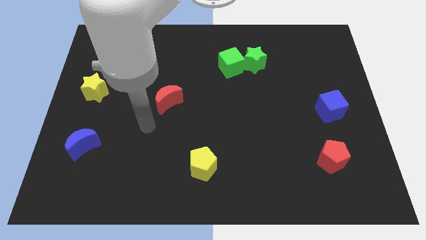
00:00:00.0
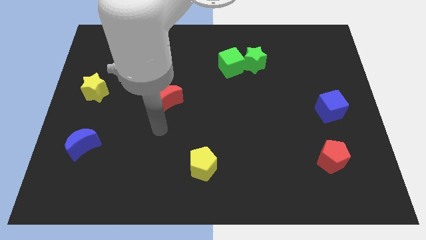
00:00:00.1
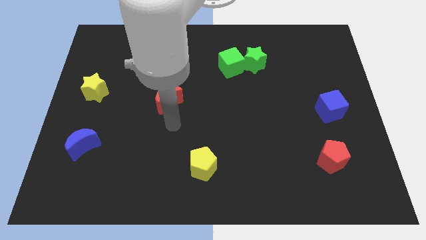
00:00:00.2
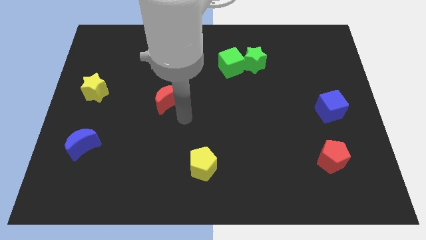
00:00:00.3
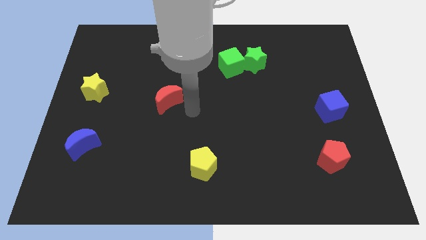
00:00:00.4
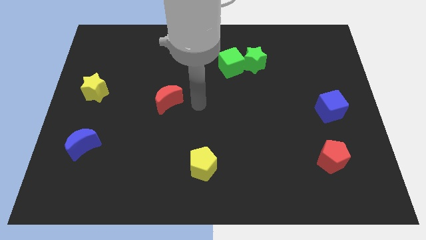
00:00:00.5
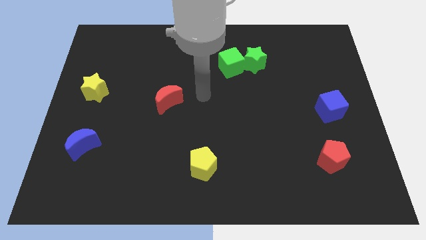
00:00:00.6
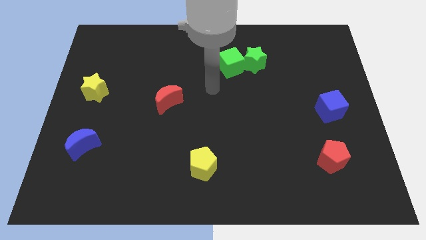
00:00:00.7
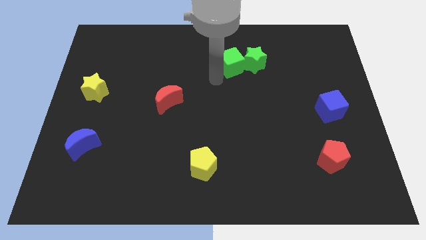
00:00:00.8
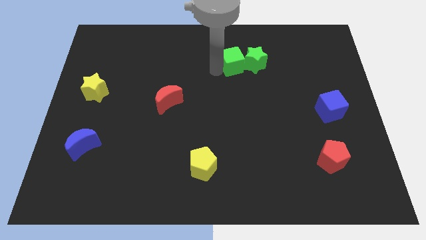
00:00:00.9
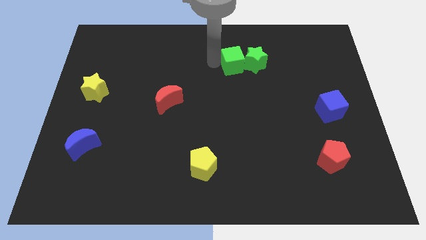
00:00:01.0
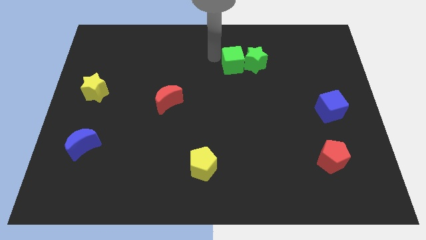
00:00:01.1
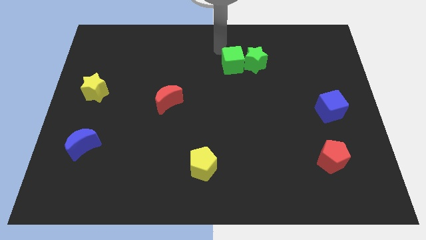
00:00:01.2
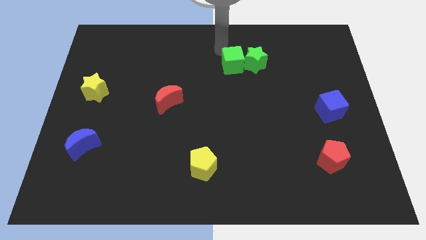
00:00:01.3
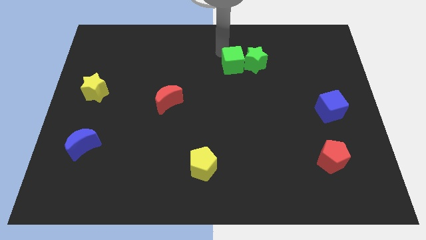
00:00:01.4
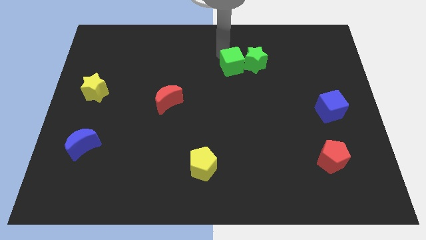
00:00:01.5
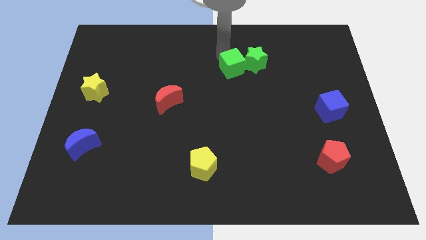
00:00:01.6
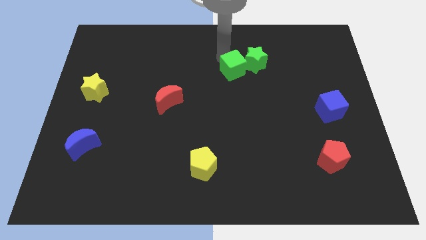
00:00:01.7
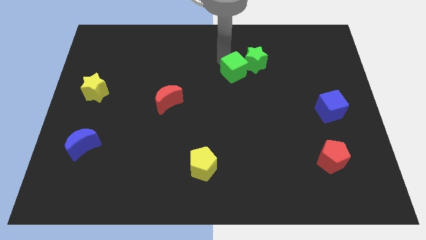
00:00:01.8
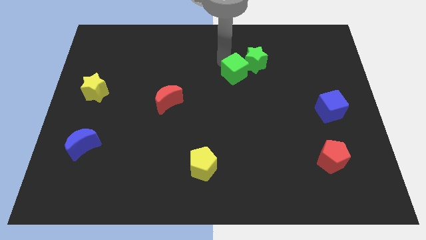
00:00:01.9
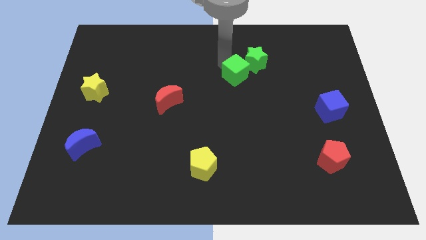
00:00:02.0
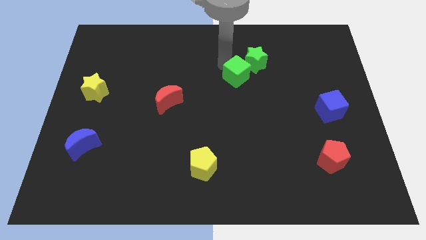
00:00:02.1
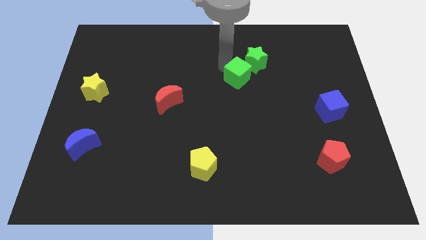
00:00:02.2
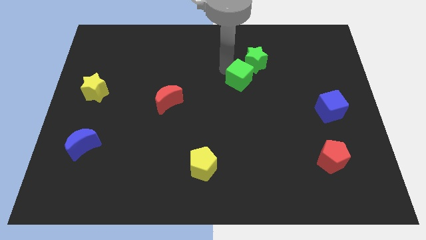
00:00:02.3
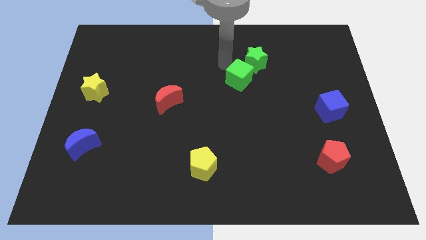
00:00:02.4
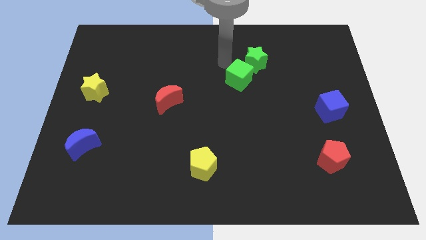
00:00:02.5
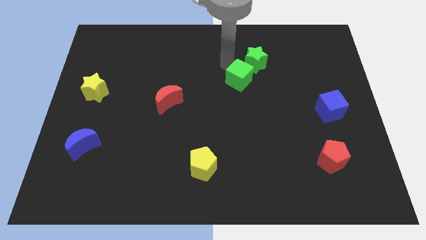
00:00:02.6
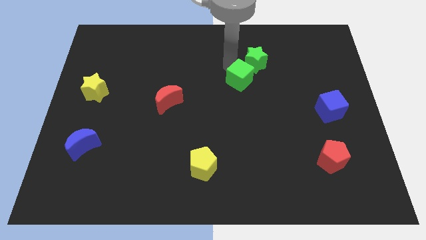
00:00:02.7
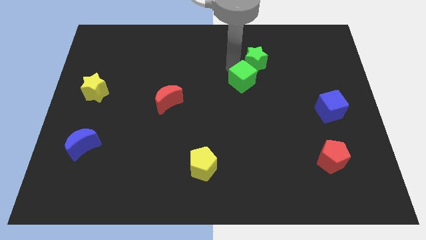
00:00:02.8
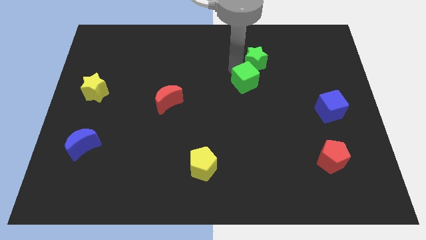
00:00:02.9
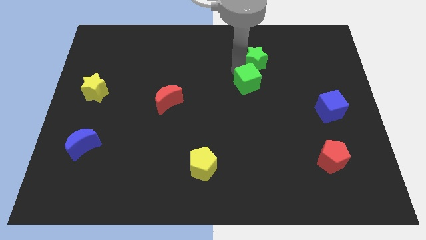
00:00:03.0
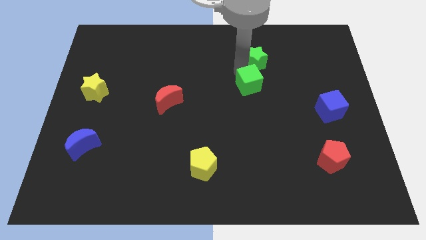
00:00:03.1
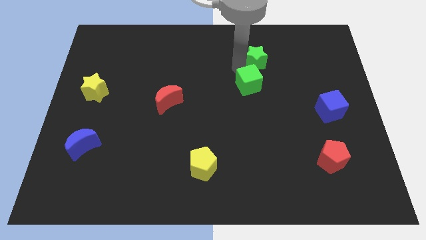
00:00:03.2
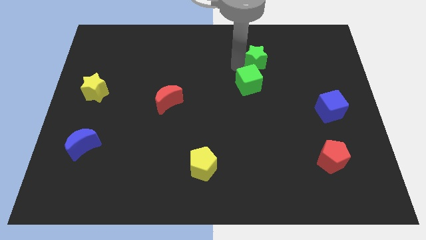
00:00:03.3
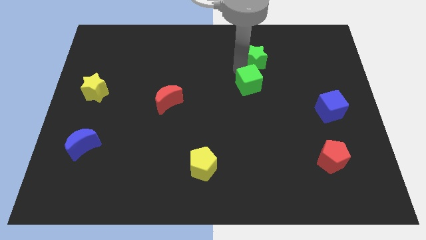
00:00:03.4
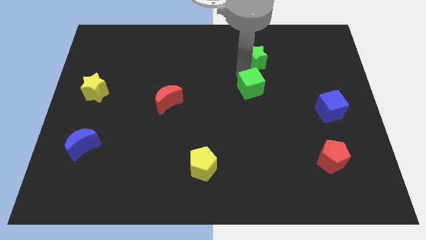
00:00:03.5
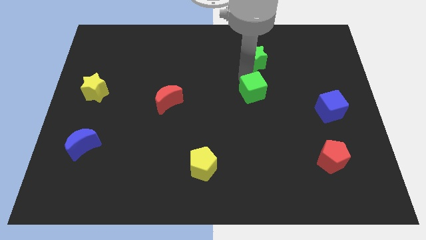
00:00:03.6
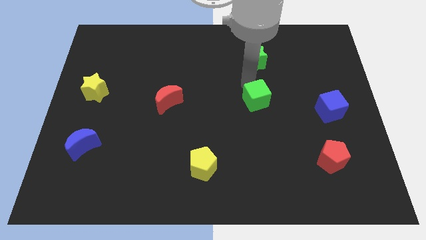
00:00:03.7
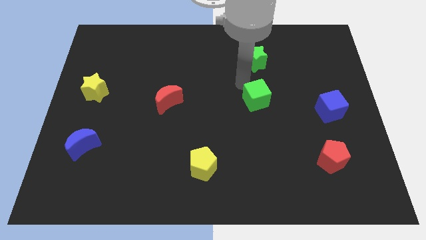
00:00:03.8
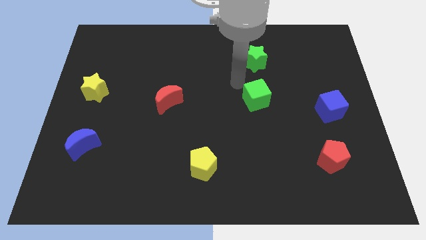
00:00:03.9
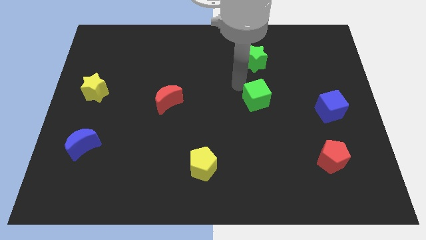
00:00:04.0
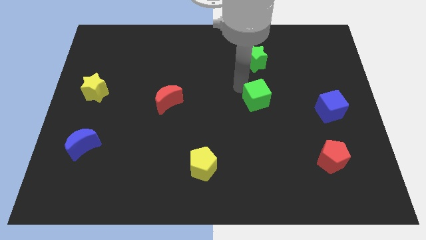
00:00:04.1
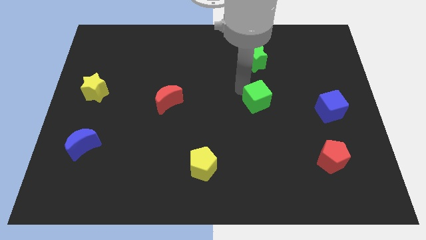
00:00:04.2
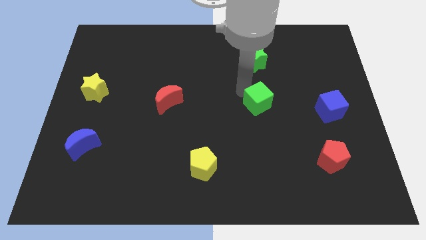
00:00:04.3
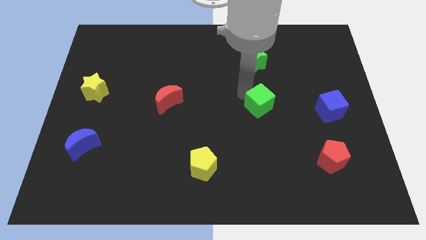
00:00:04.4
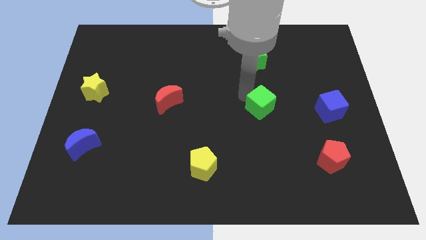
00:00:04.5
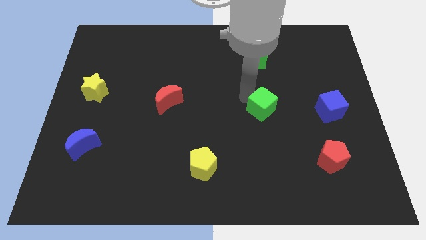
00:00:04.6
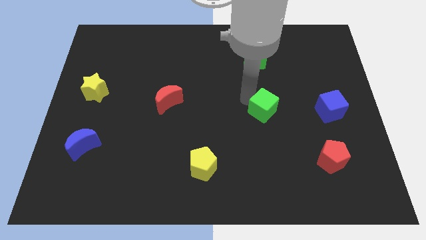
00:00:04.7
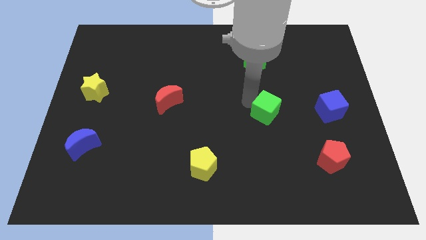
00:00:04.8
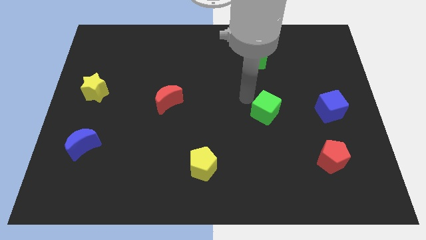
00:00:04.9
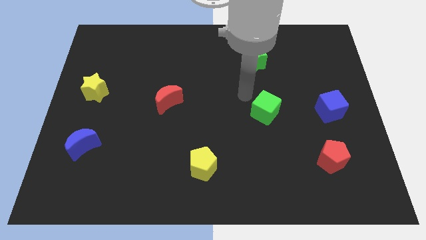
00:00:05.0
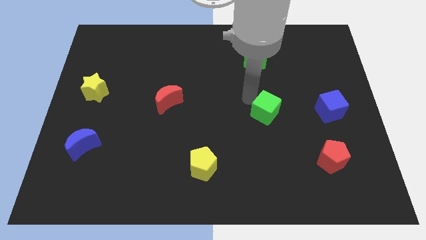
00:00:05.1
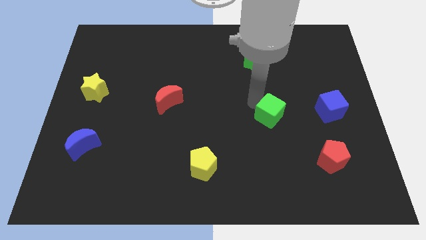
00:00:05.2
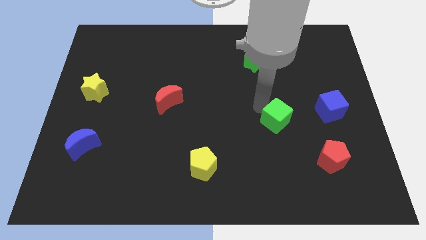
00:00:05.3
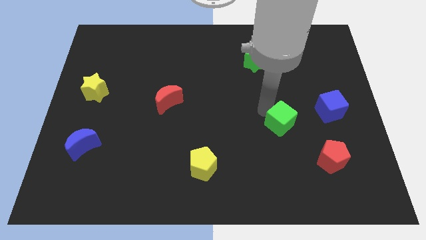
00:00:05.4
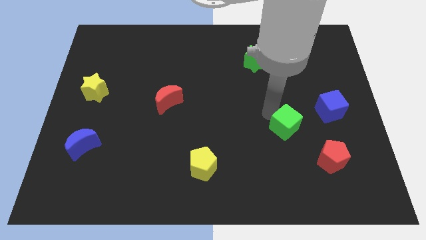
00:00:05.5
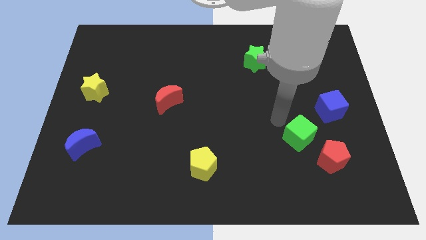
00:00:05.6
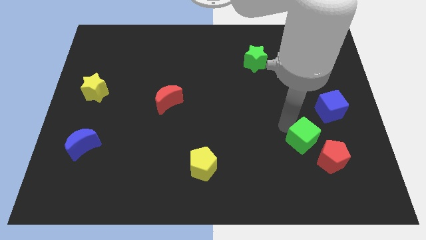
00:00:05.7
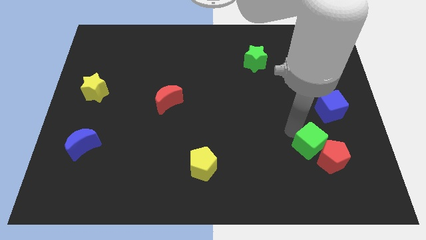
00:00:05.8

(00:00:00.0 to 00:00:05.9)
move the green cube close to the red pentagon

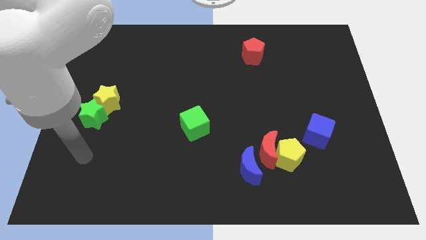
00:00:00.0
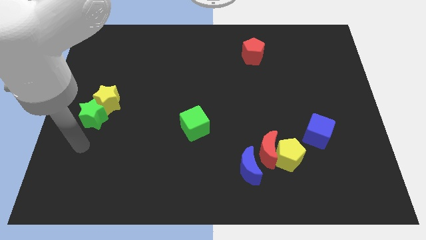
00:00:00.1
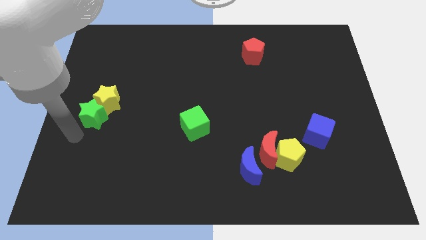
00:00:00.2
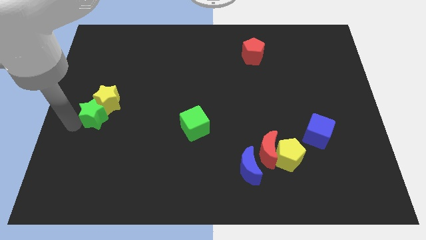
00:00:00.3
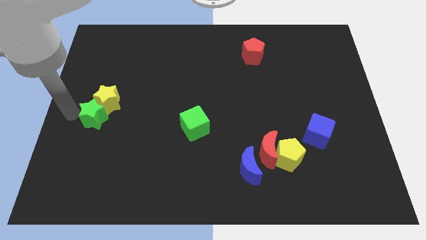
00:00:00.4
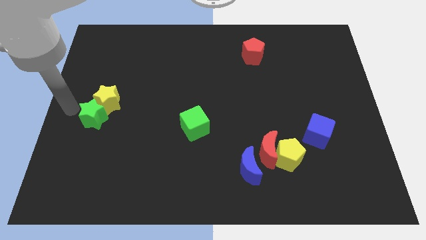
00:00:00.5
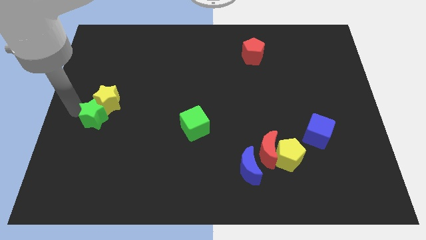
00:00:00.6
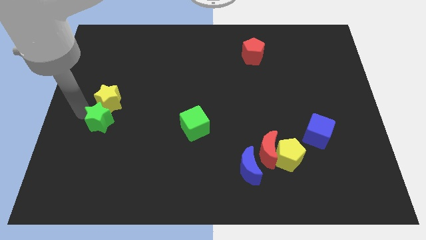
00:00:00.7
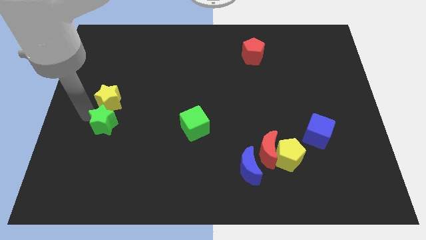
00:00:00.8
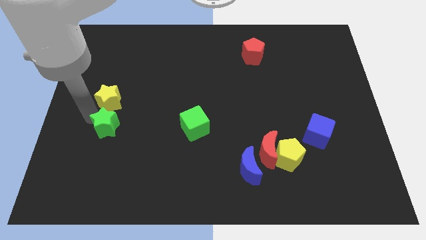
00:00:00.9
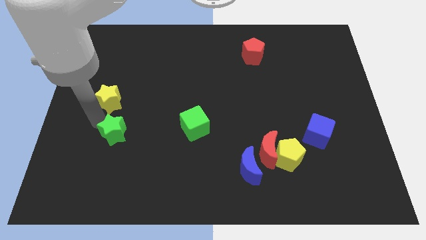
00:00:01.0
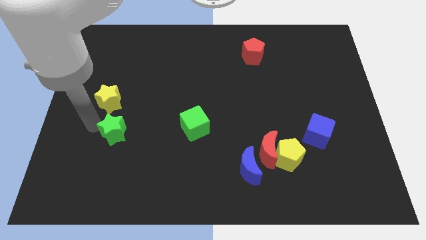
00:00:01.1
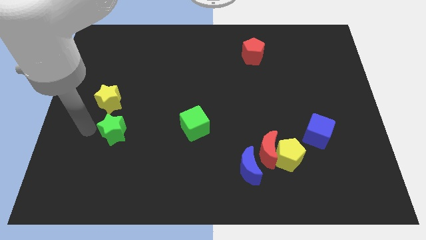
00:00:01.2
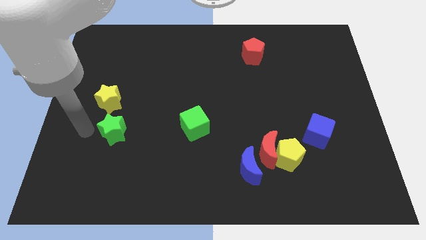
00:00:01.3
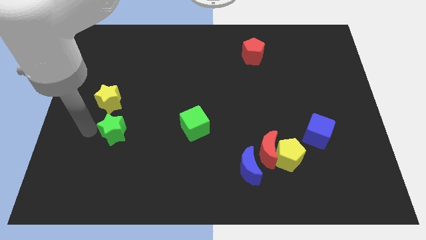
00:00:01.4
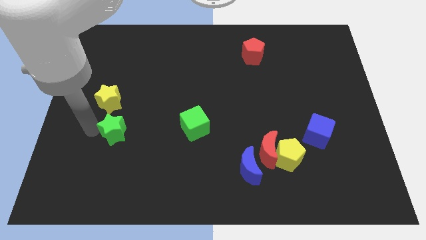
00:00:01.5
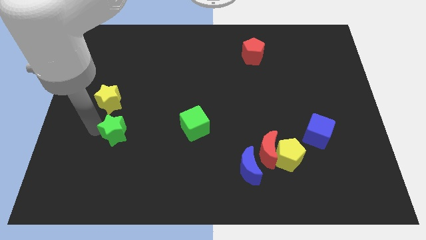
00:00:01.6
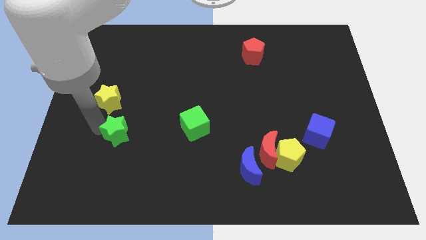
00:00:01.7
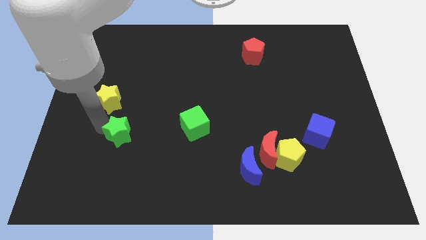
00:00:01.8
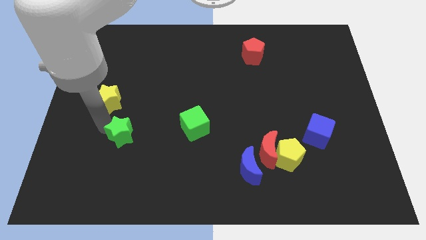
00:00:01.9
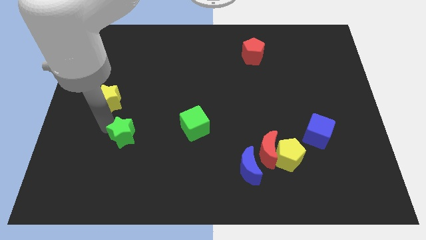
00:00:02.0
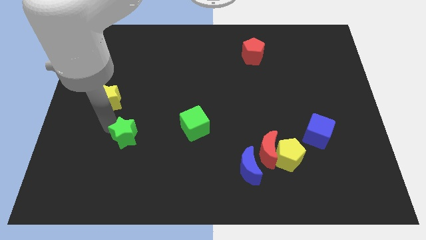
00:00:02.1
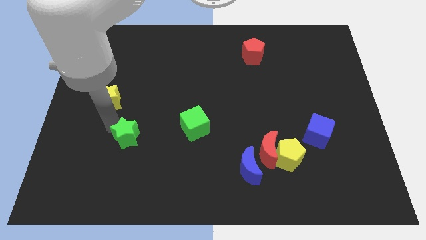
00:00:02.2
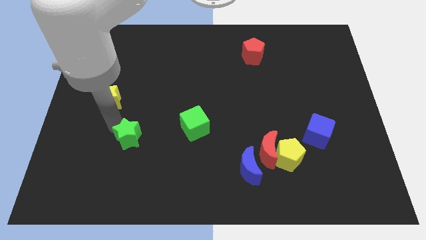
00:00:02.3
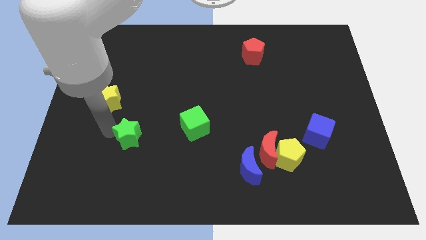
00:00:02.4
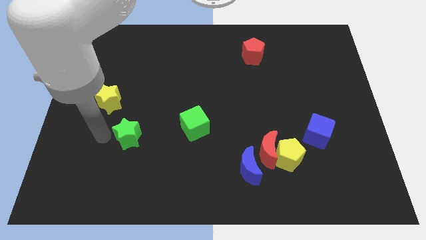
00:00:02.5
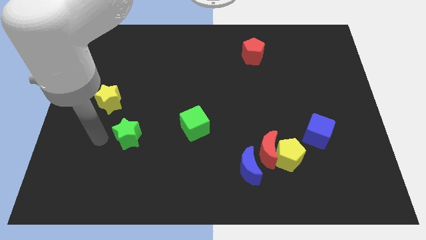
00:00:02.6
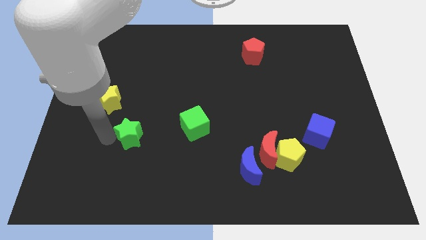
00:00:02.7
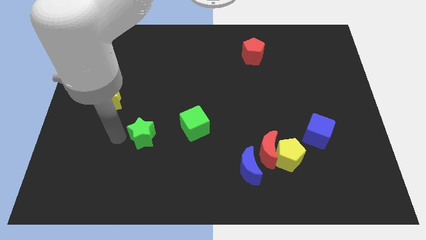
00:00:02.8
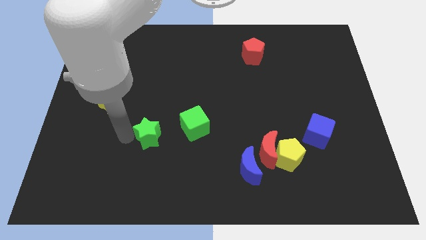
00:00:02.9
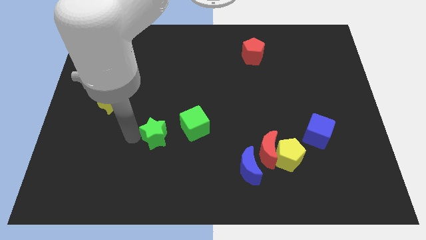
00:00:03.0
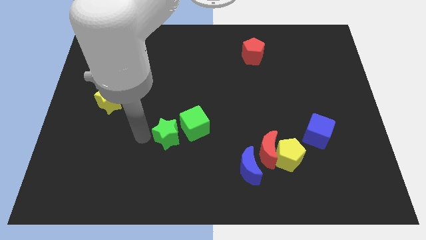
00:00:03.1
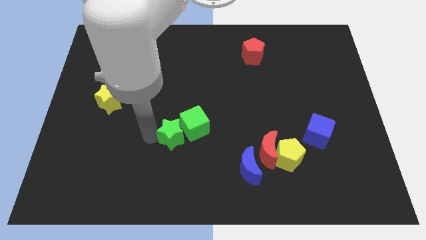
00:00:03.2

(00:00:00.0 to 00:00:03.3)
slide the green star close to the green cube
